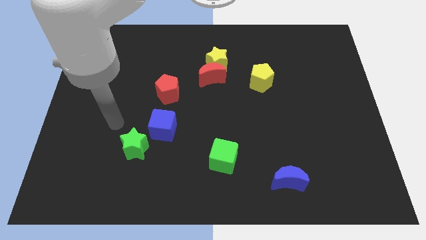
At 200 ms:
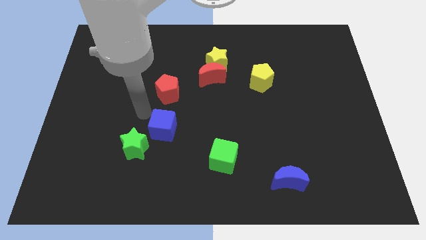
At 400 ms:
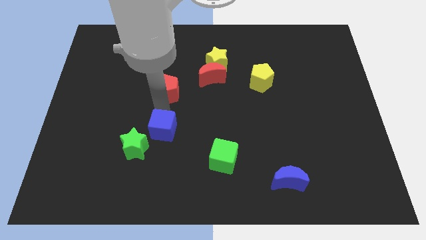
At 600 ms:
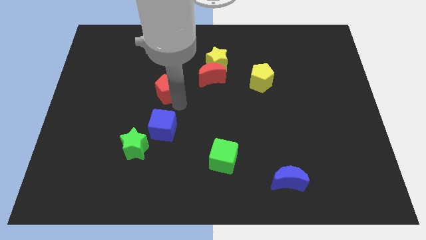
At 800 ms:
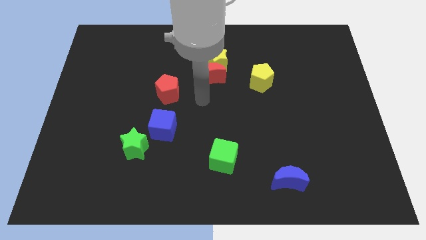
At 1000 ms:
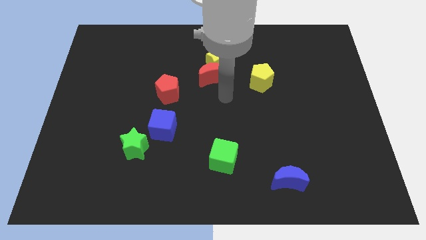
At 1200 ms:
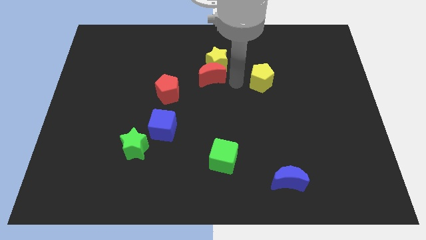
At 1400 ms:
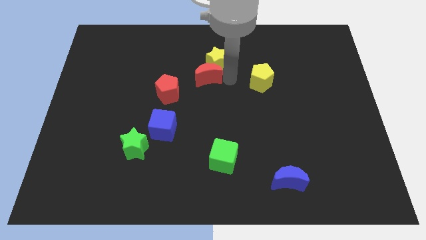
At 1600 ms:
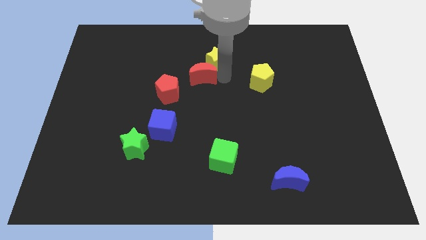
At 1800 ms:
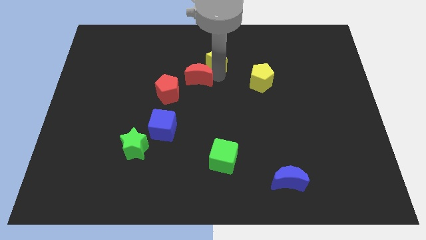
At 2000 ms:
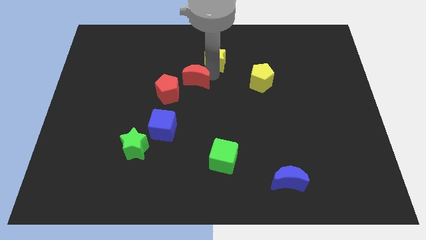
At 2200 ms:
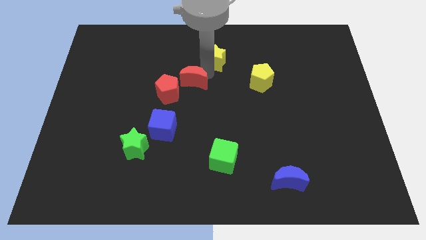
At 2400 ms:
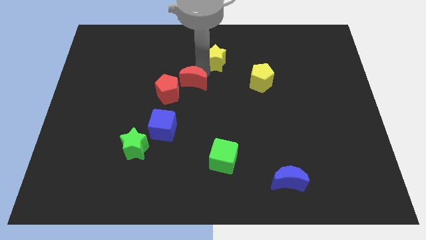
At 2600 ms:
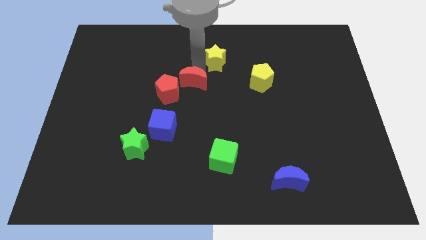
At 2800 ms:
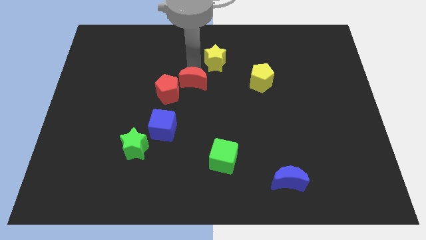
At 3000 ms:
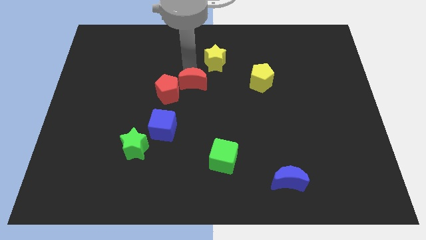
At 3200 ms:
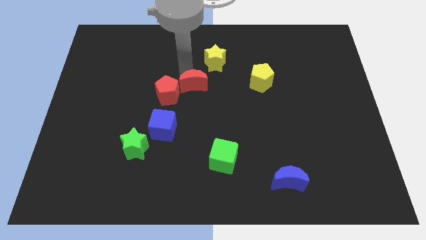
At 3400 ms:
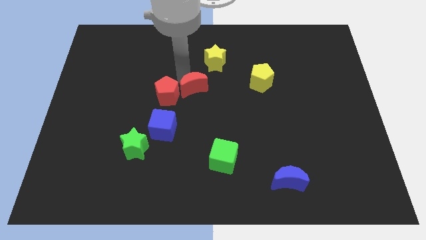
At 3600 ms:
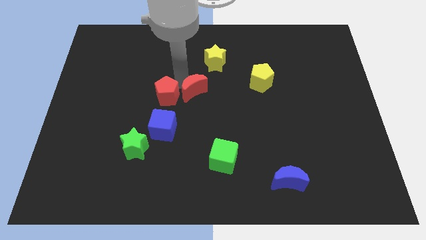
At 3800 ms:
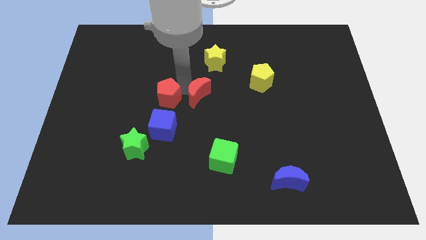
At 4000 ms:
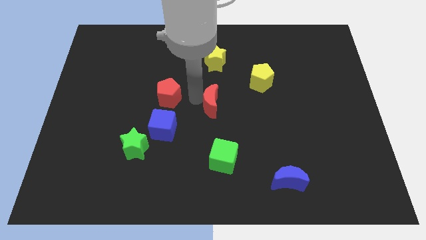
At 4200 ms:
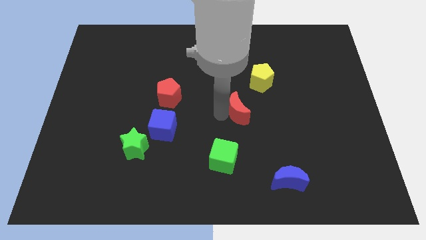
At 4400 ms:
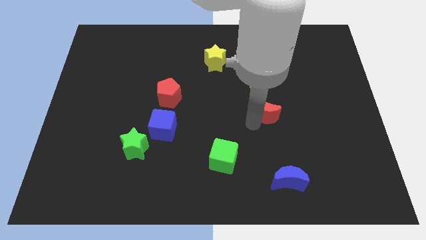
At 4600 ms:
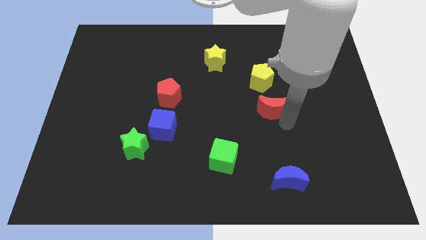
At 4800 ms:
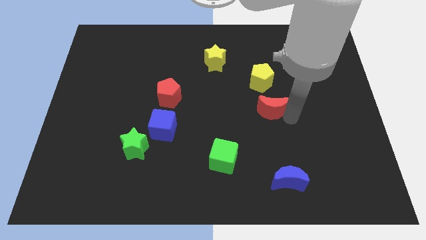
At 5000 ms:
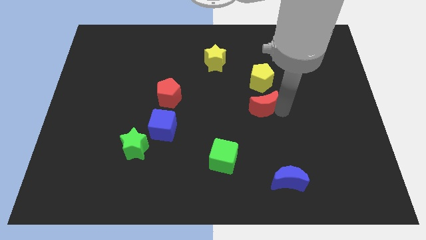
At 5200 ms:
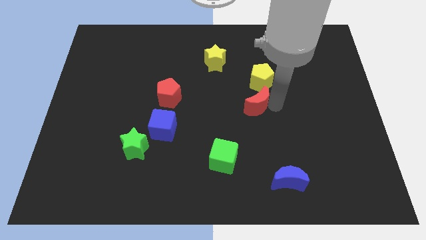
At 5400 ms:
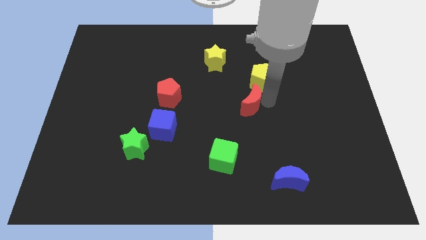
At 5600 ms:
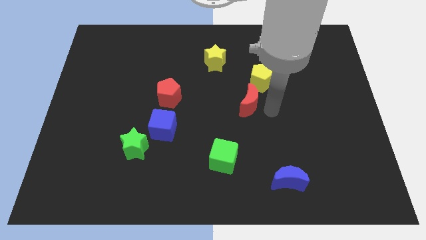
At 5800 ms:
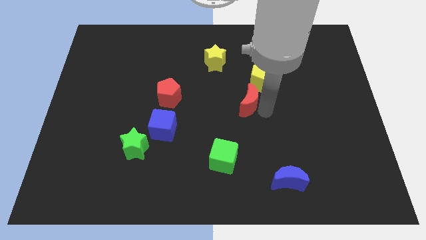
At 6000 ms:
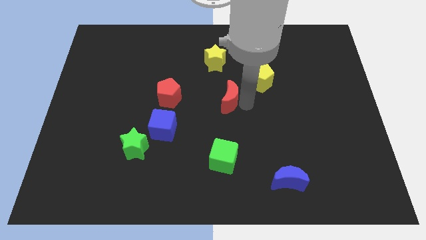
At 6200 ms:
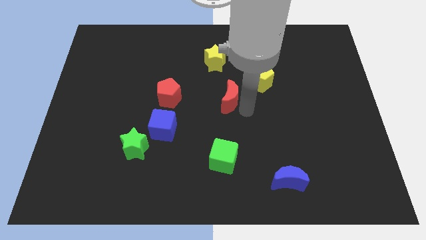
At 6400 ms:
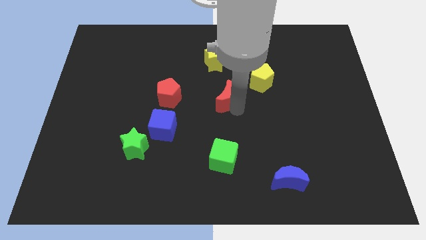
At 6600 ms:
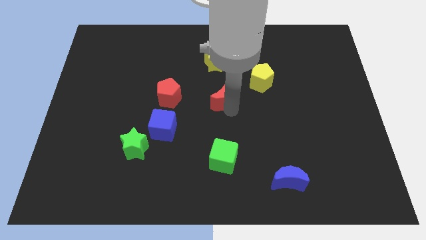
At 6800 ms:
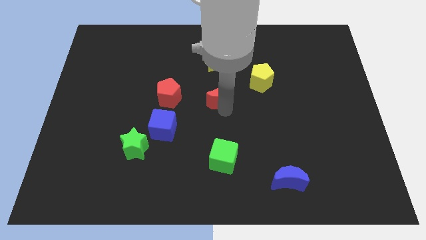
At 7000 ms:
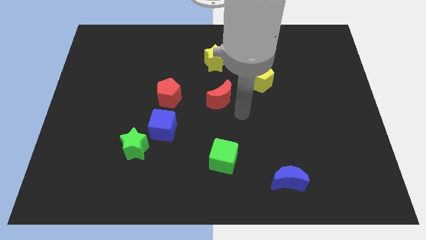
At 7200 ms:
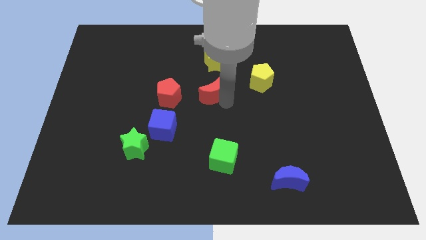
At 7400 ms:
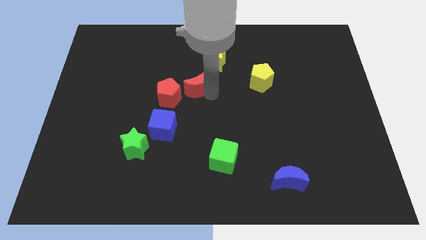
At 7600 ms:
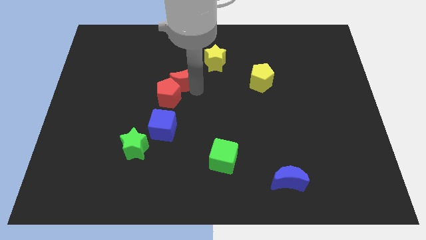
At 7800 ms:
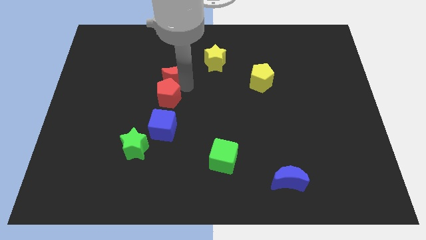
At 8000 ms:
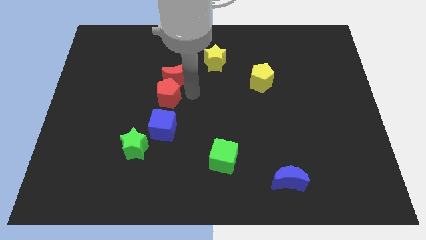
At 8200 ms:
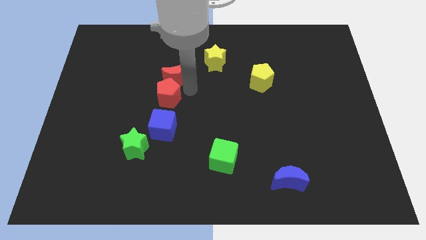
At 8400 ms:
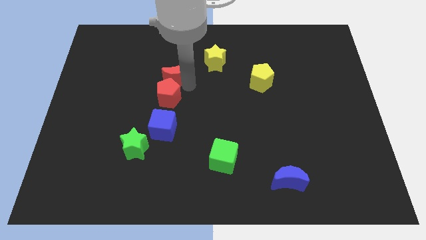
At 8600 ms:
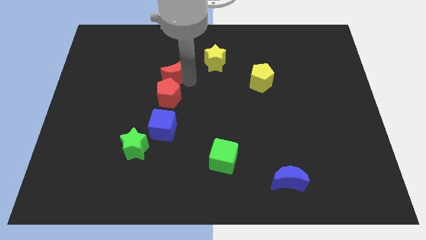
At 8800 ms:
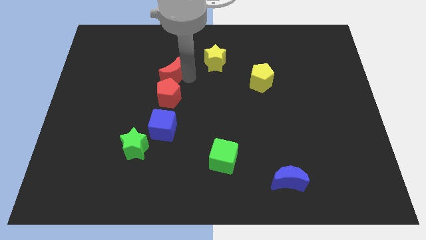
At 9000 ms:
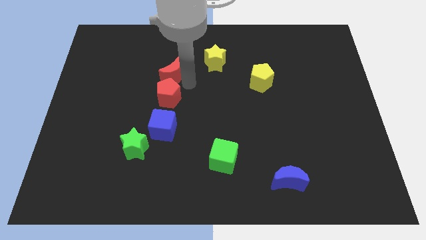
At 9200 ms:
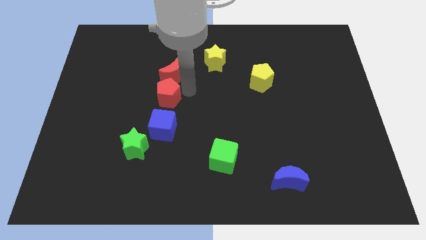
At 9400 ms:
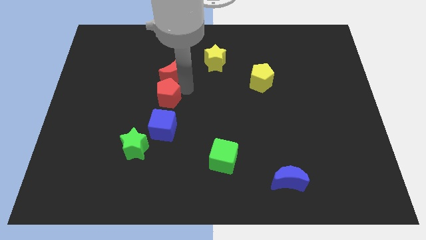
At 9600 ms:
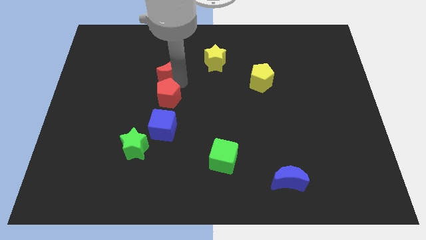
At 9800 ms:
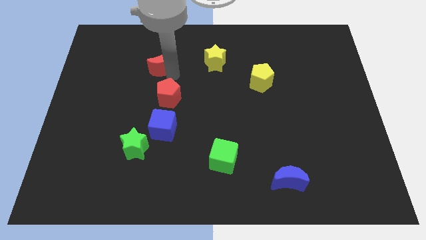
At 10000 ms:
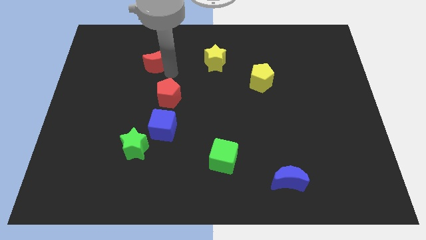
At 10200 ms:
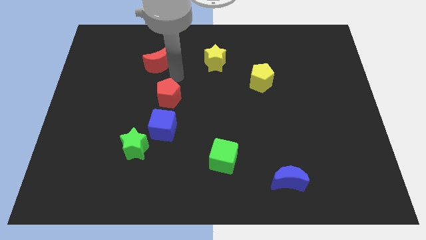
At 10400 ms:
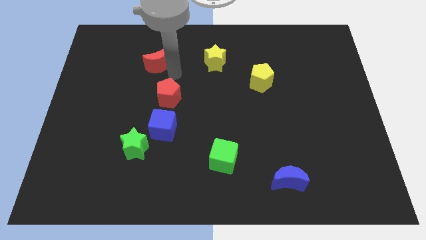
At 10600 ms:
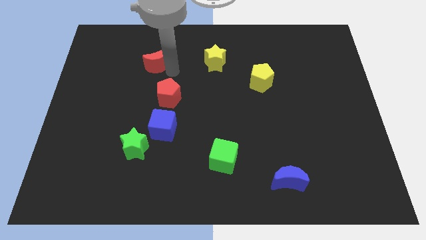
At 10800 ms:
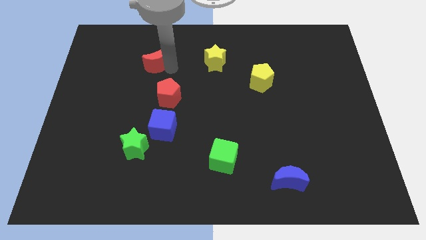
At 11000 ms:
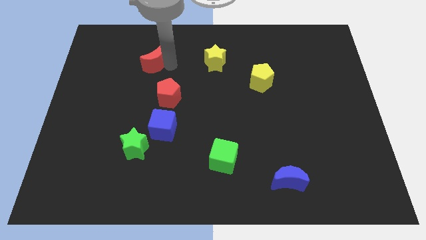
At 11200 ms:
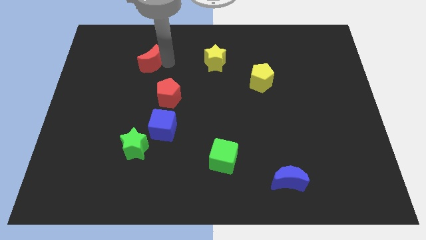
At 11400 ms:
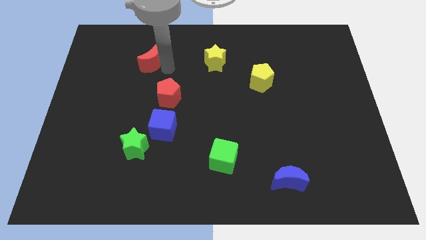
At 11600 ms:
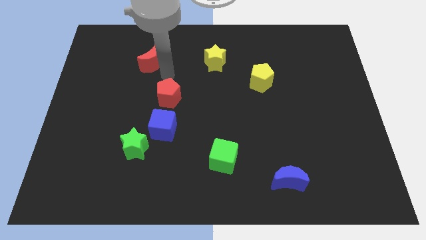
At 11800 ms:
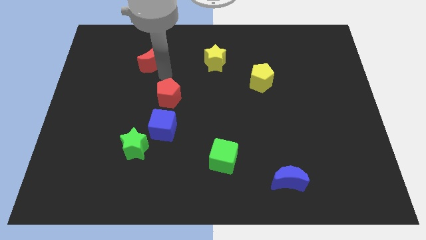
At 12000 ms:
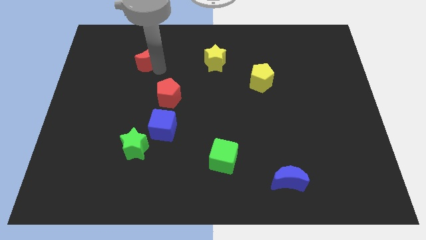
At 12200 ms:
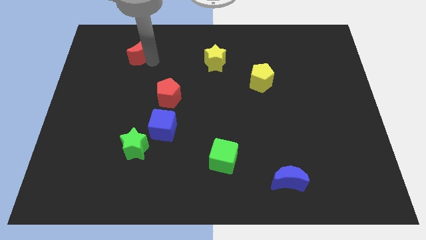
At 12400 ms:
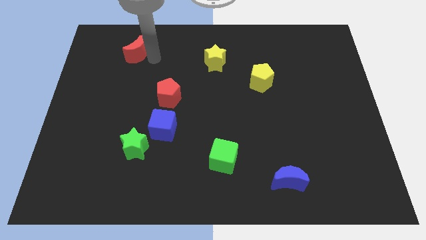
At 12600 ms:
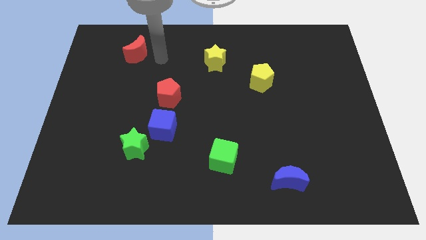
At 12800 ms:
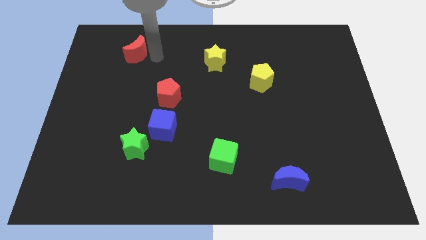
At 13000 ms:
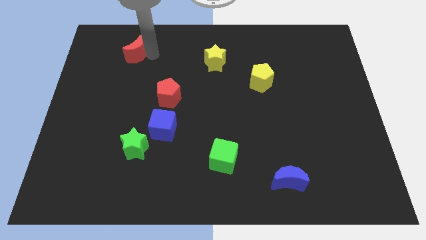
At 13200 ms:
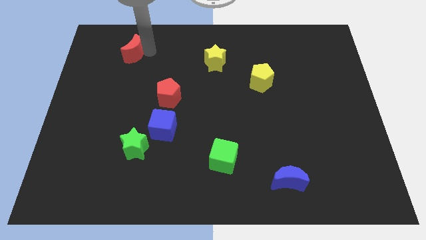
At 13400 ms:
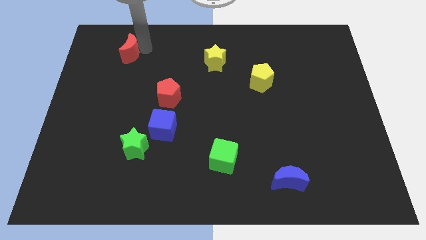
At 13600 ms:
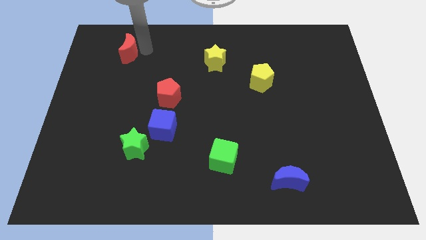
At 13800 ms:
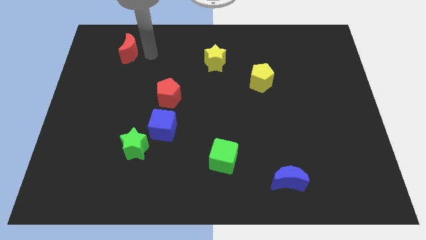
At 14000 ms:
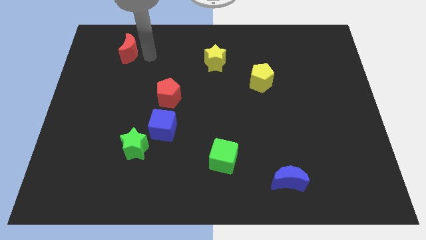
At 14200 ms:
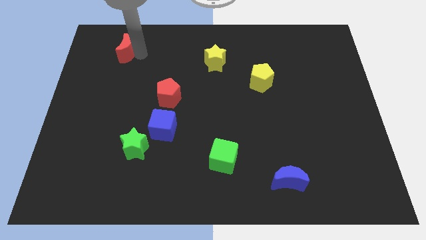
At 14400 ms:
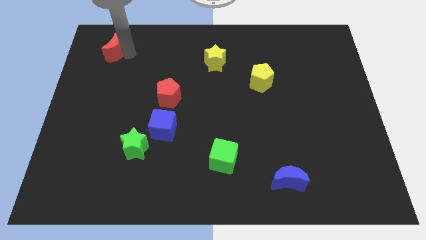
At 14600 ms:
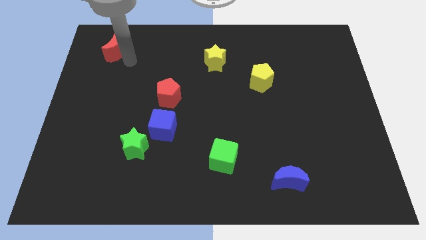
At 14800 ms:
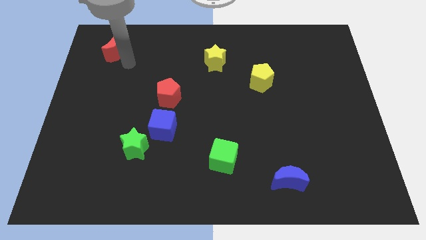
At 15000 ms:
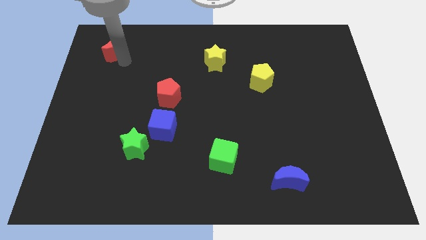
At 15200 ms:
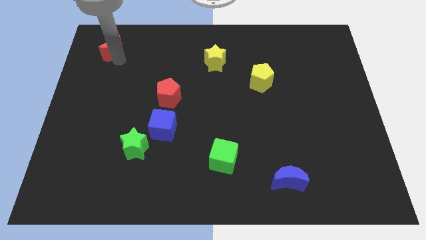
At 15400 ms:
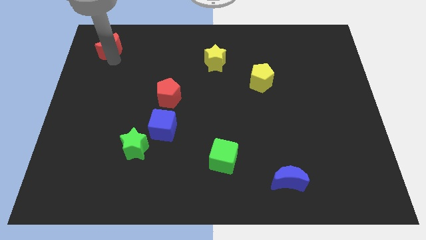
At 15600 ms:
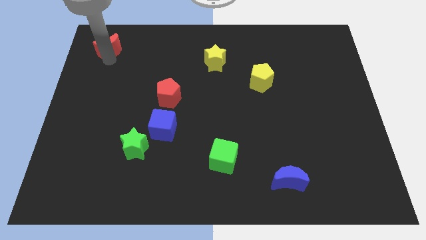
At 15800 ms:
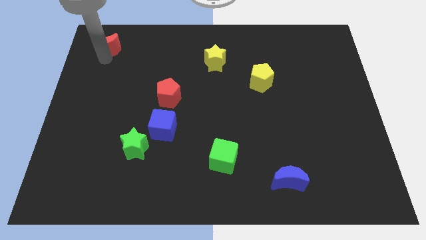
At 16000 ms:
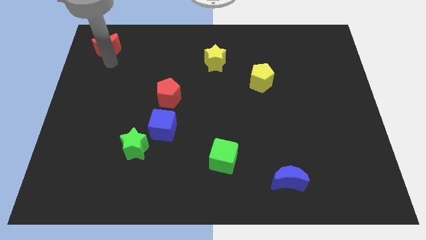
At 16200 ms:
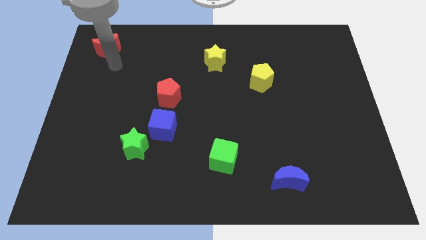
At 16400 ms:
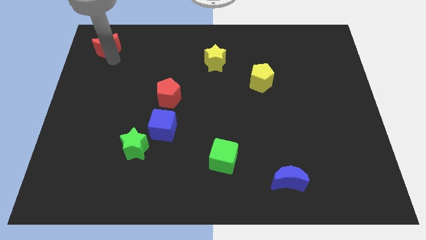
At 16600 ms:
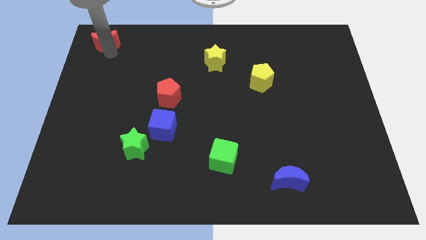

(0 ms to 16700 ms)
put the red moon to the top left corner
